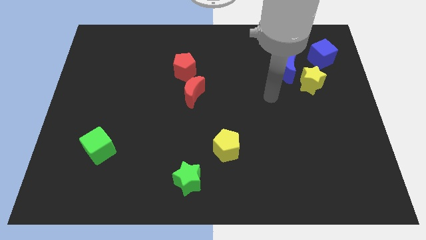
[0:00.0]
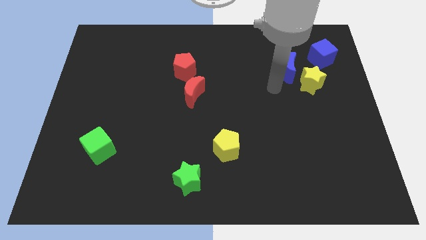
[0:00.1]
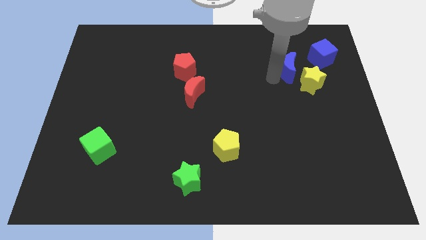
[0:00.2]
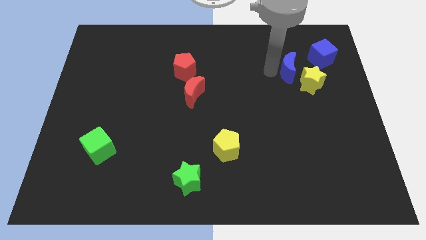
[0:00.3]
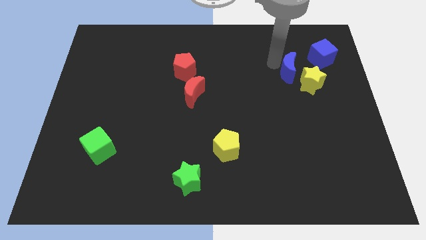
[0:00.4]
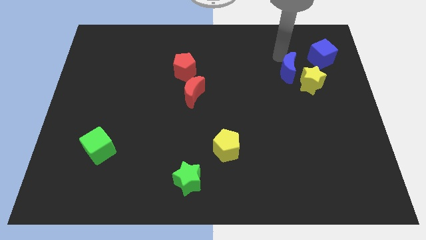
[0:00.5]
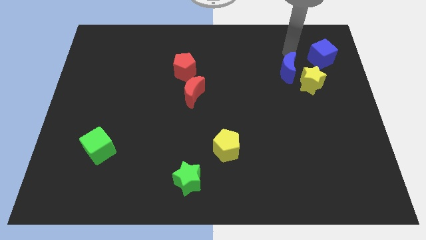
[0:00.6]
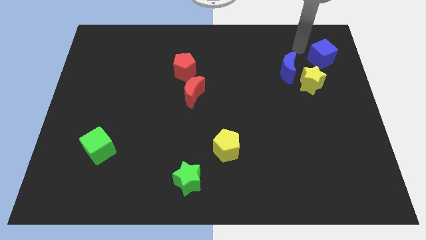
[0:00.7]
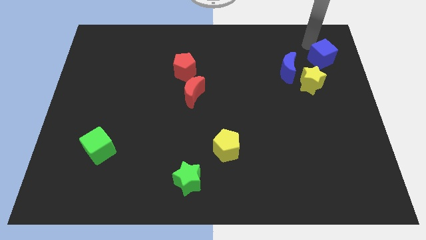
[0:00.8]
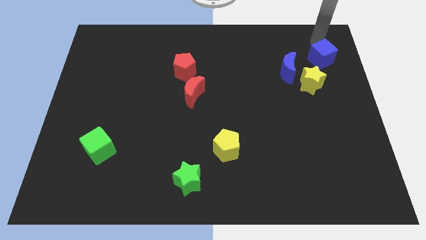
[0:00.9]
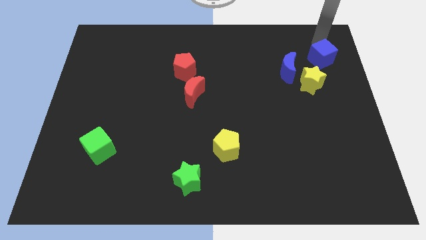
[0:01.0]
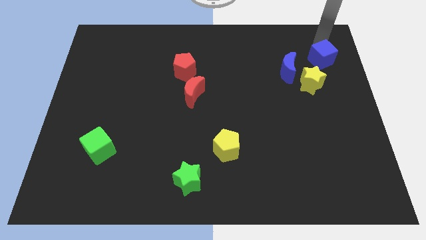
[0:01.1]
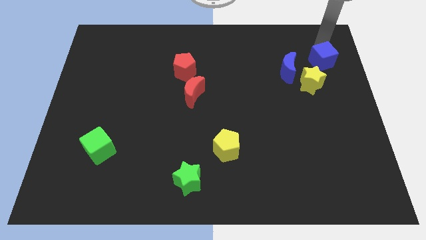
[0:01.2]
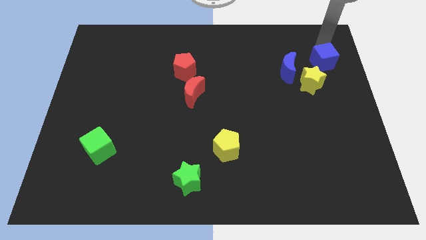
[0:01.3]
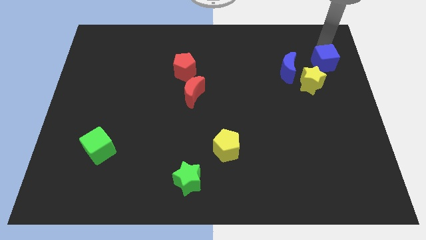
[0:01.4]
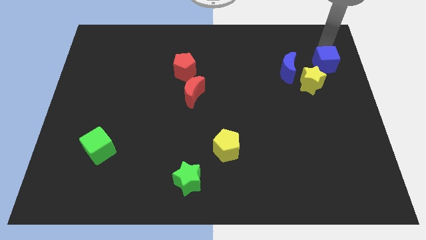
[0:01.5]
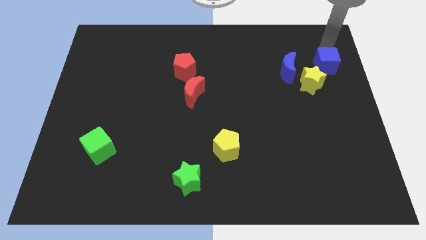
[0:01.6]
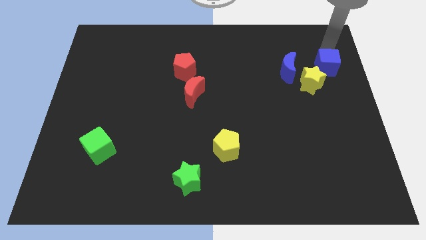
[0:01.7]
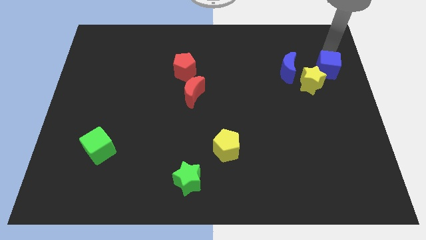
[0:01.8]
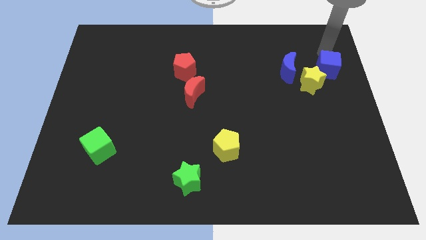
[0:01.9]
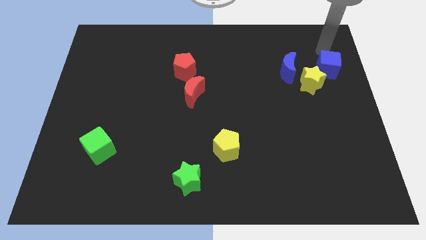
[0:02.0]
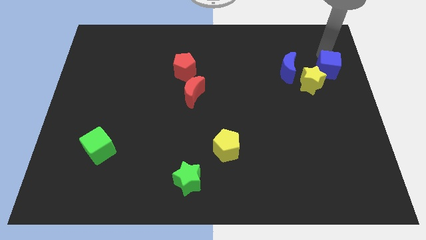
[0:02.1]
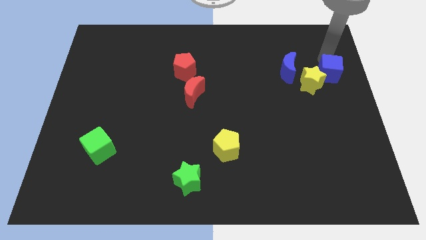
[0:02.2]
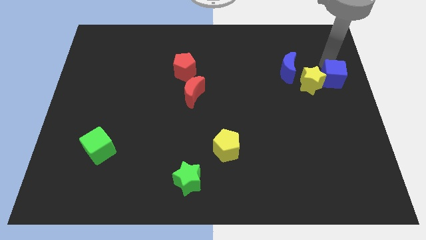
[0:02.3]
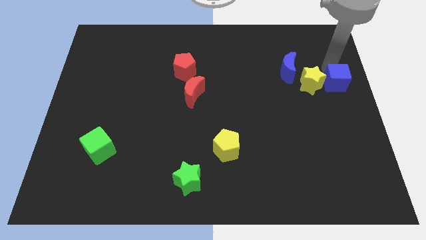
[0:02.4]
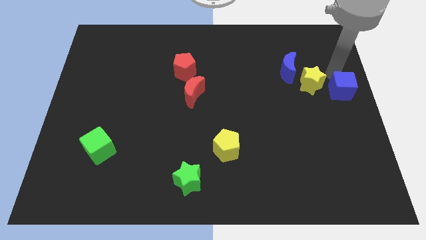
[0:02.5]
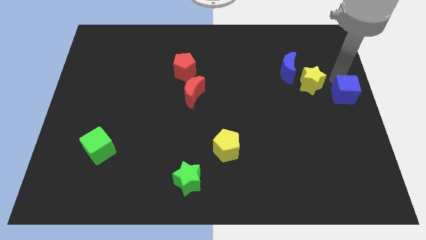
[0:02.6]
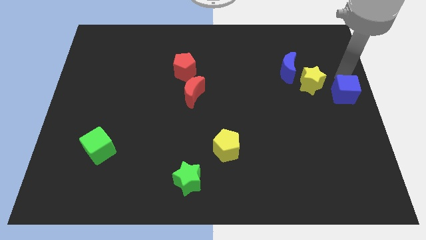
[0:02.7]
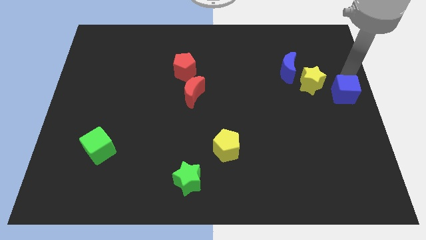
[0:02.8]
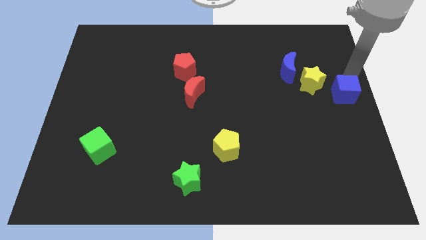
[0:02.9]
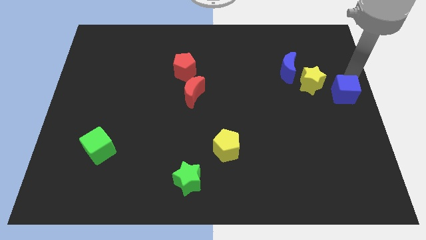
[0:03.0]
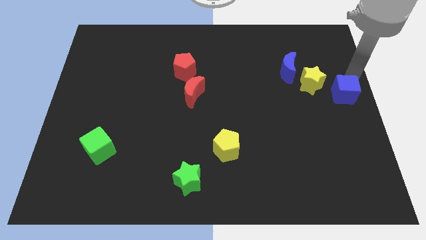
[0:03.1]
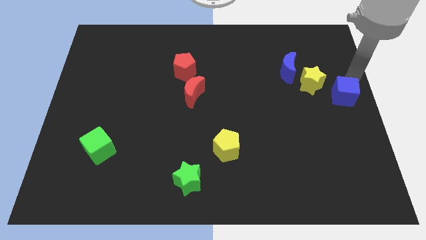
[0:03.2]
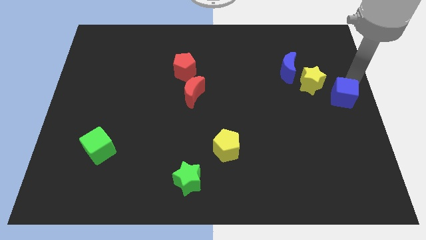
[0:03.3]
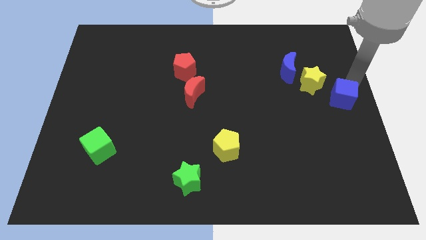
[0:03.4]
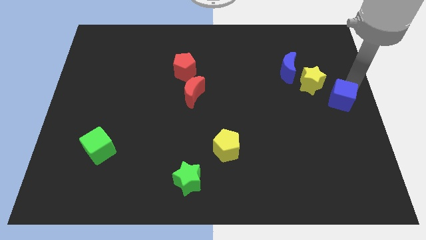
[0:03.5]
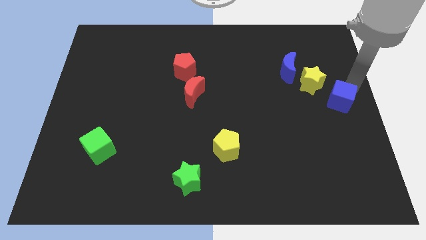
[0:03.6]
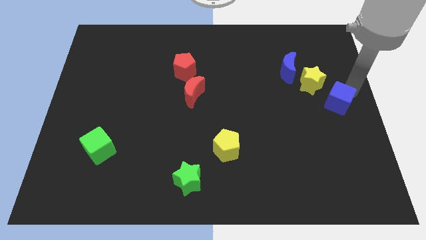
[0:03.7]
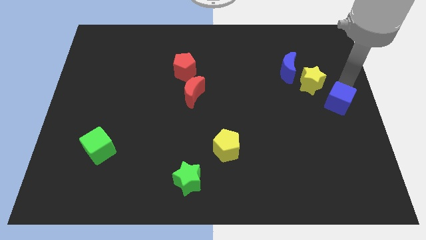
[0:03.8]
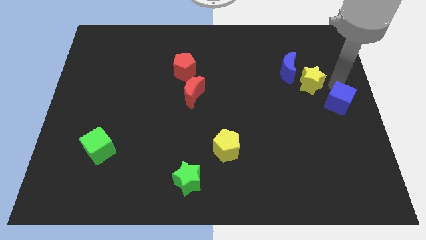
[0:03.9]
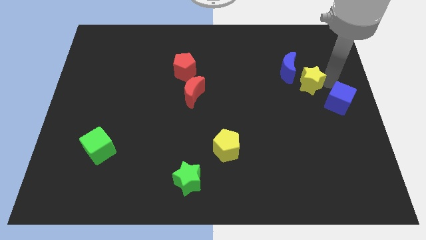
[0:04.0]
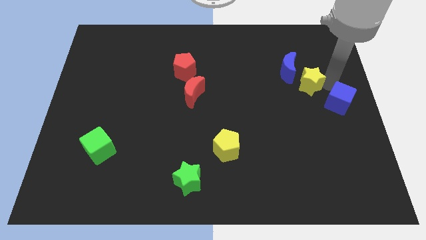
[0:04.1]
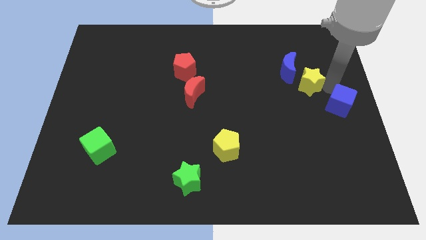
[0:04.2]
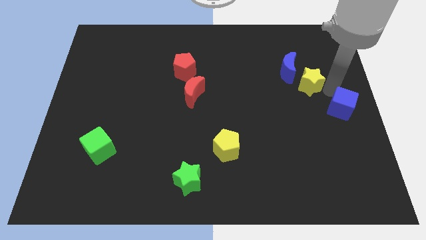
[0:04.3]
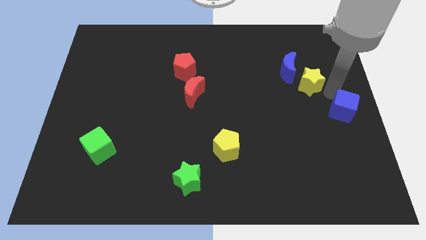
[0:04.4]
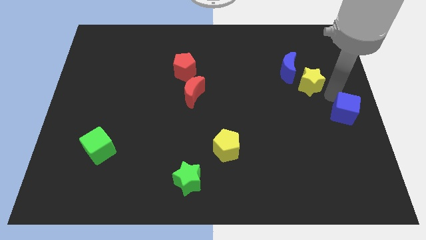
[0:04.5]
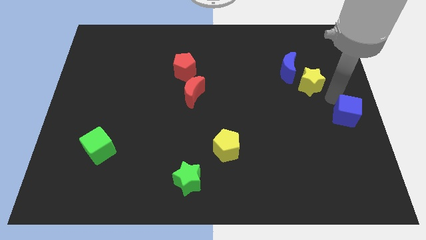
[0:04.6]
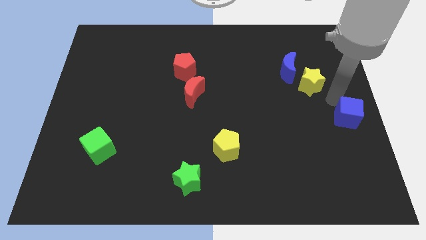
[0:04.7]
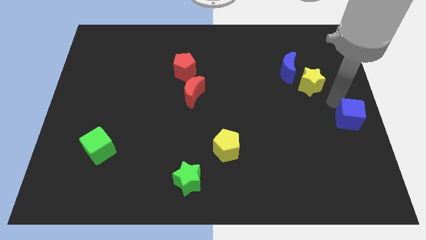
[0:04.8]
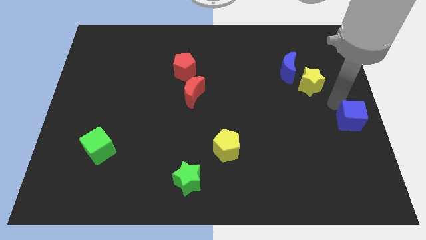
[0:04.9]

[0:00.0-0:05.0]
push the blue cube down

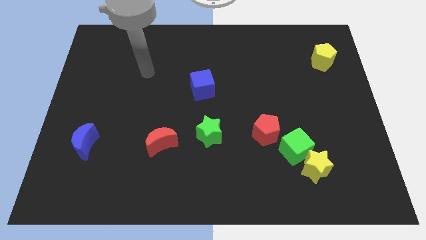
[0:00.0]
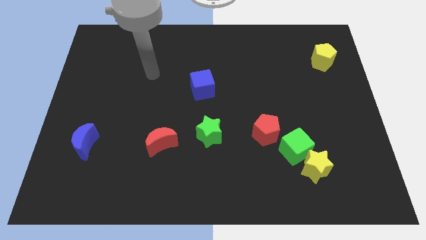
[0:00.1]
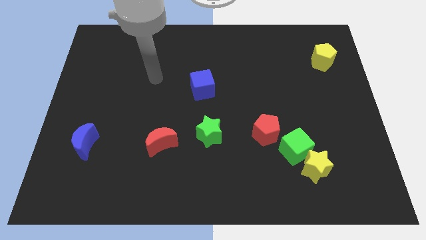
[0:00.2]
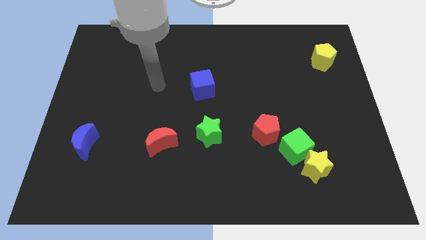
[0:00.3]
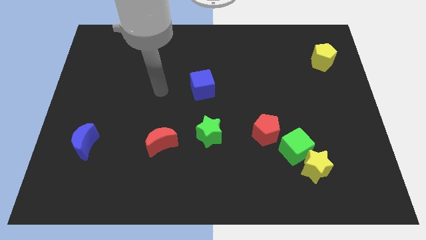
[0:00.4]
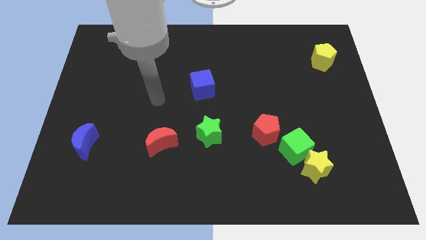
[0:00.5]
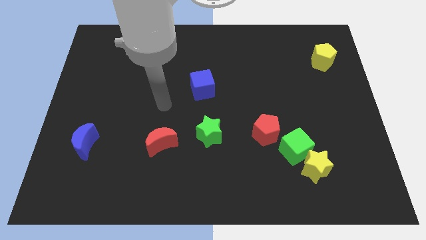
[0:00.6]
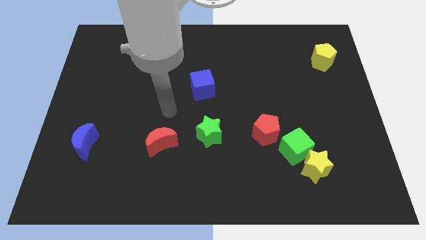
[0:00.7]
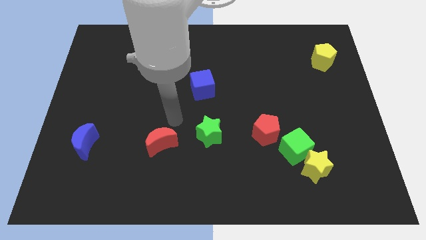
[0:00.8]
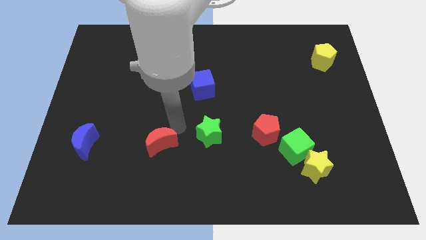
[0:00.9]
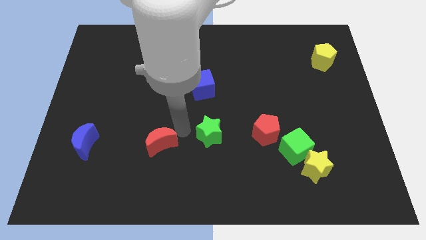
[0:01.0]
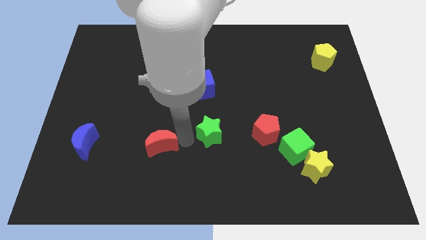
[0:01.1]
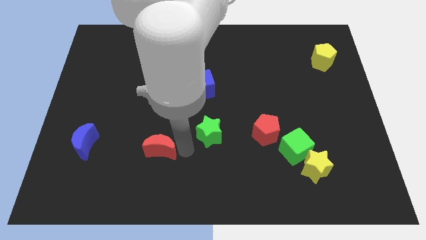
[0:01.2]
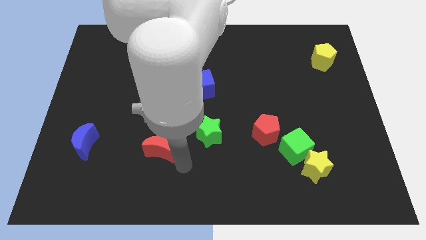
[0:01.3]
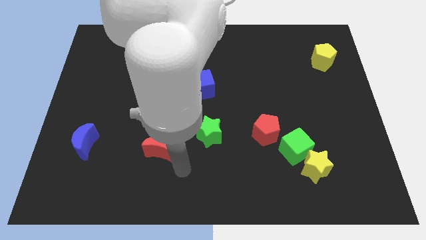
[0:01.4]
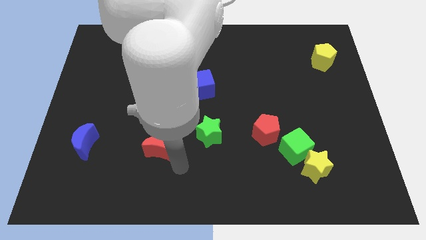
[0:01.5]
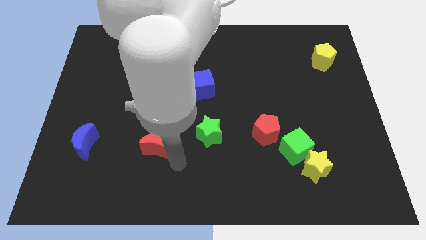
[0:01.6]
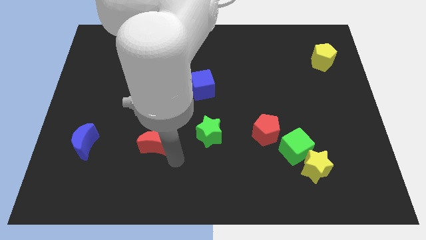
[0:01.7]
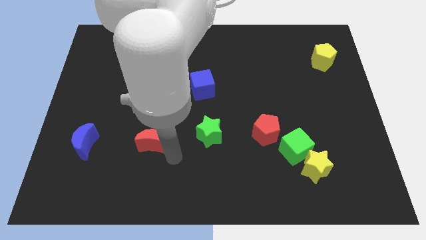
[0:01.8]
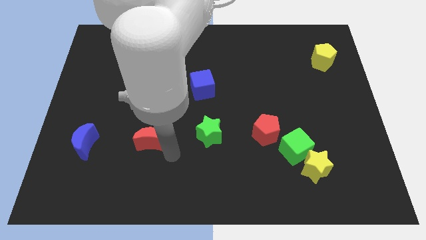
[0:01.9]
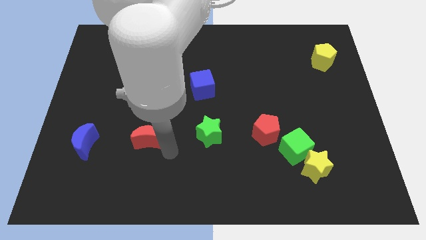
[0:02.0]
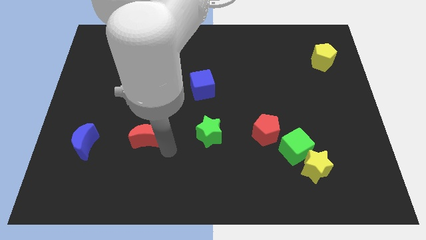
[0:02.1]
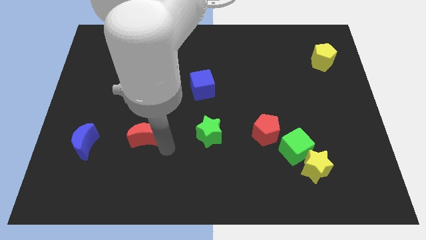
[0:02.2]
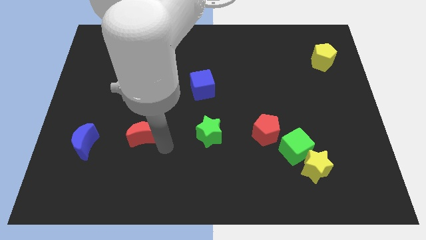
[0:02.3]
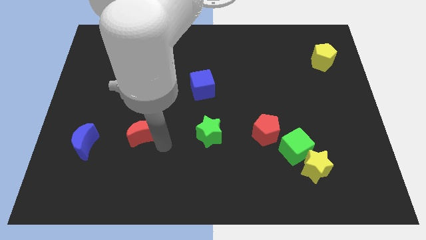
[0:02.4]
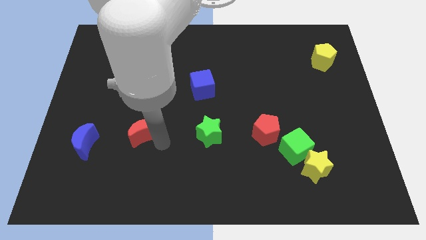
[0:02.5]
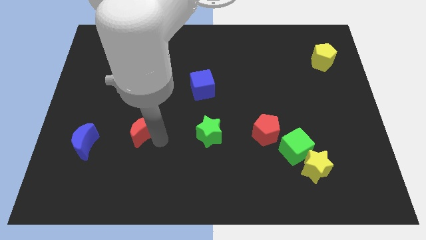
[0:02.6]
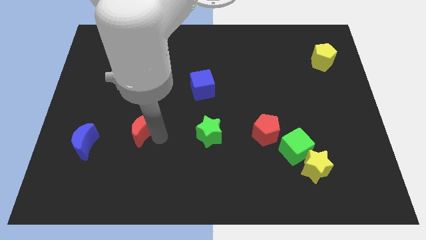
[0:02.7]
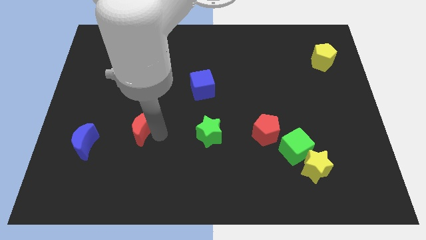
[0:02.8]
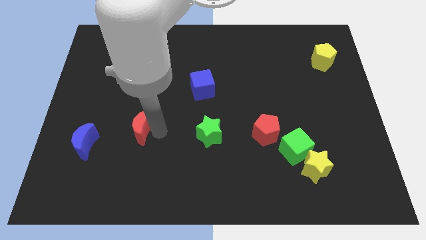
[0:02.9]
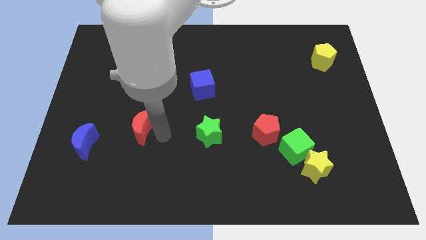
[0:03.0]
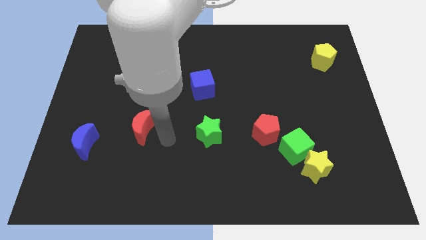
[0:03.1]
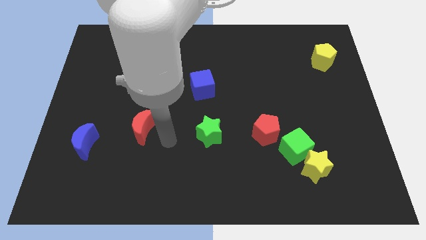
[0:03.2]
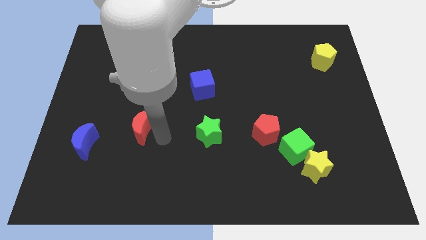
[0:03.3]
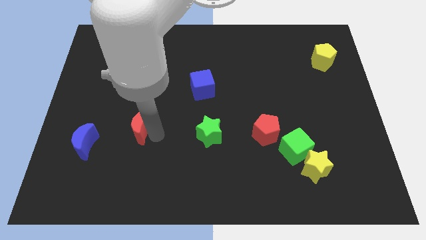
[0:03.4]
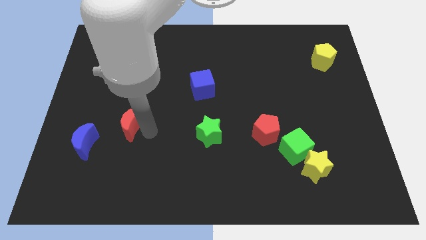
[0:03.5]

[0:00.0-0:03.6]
move the red moon a little diagonally upwards and left
